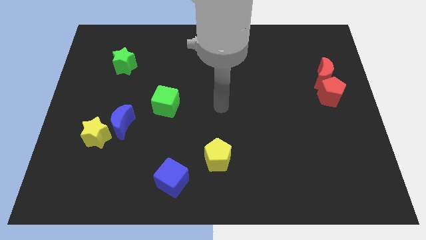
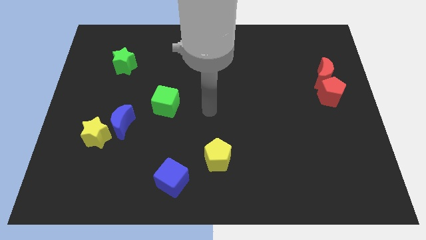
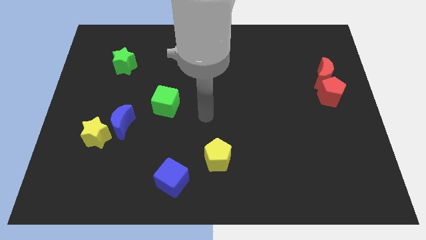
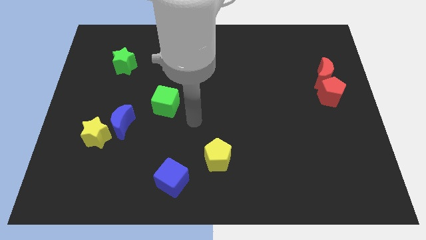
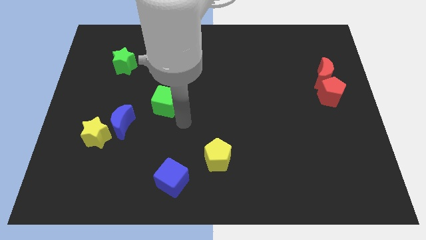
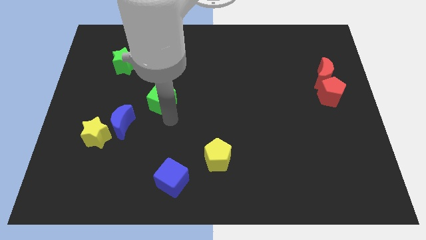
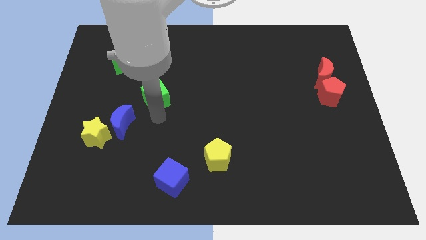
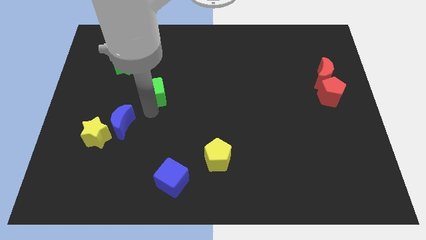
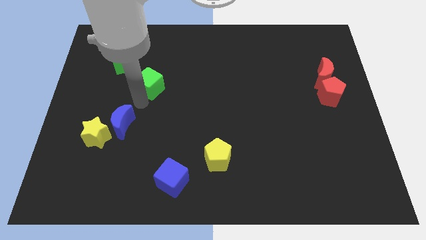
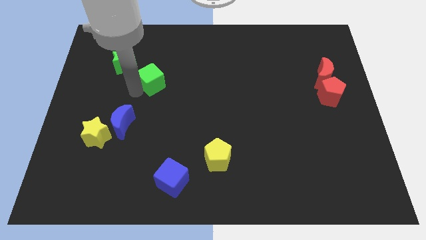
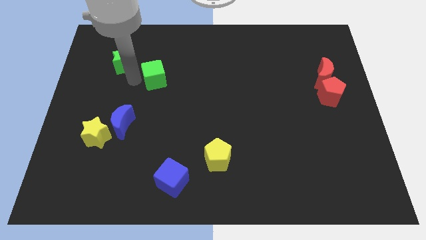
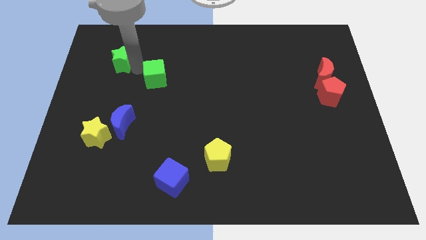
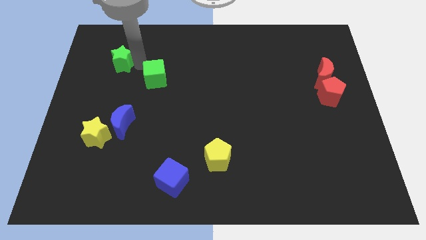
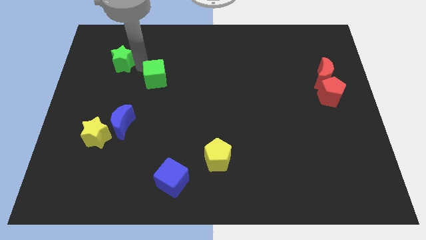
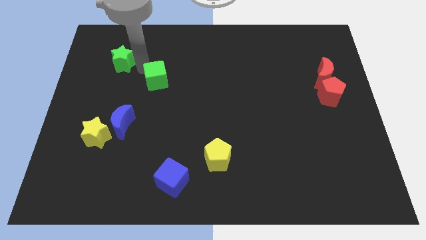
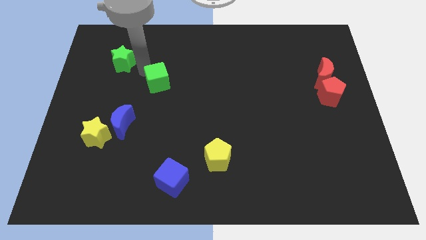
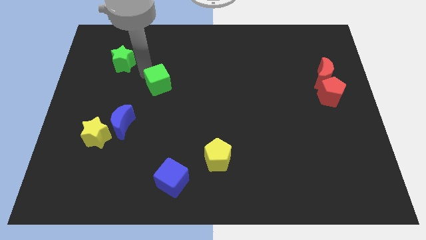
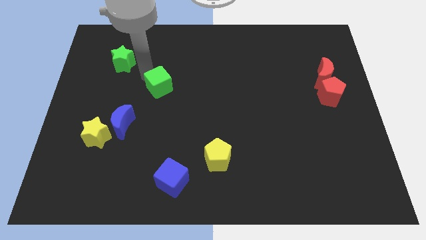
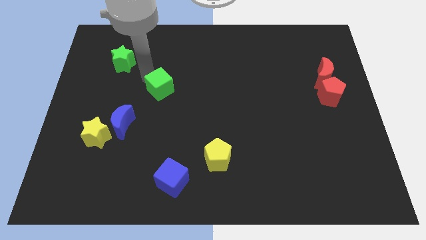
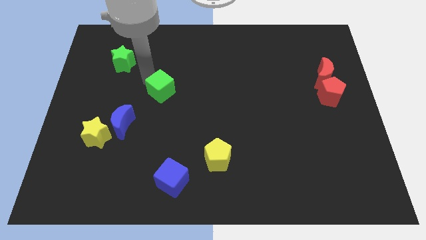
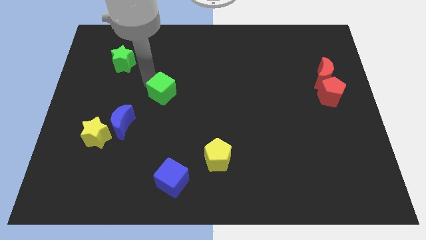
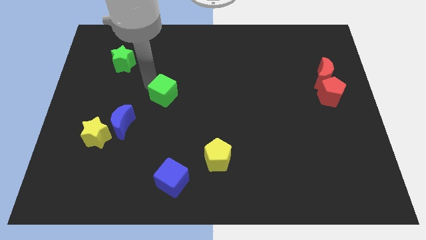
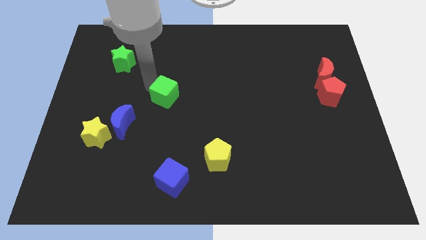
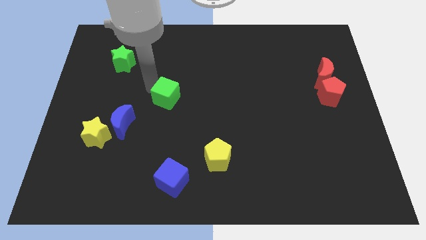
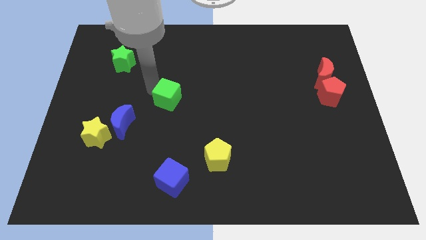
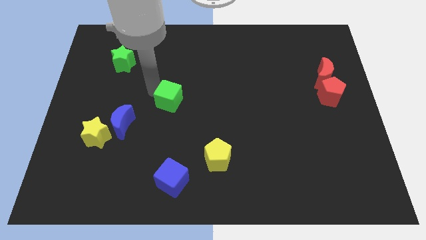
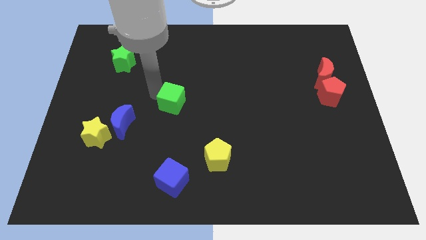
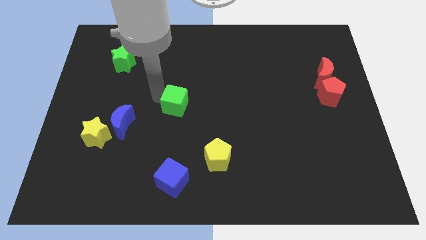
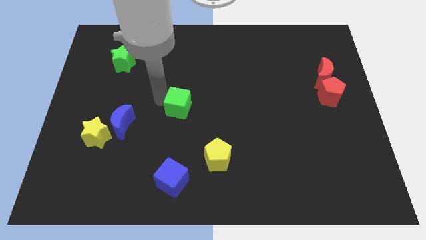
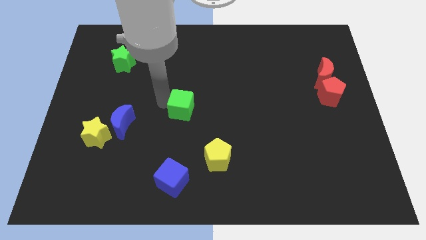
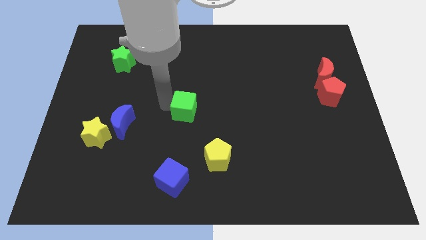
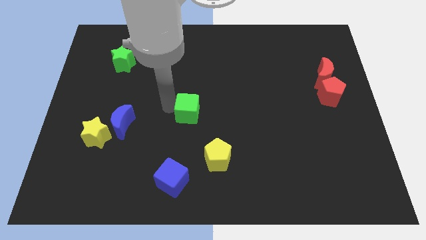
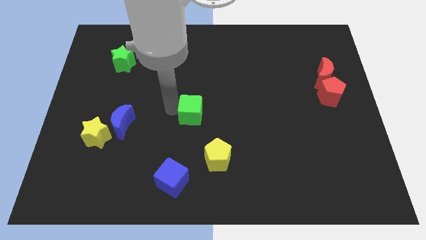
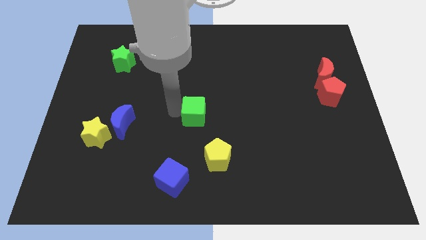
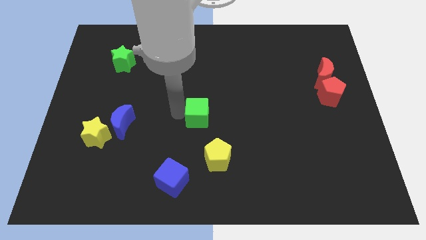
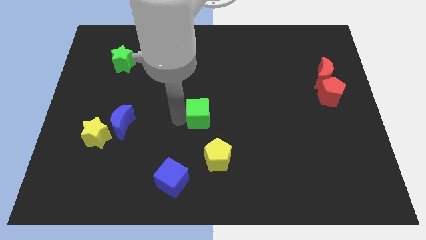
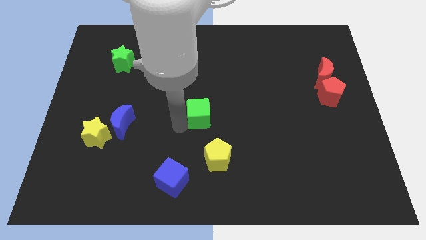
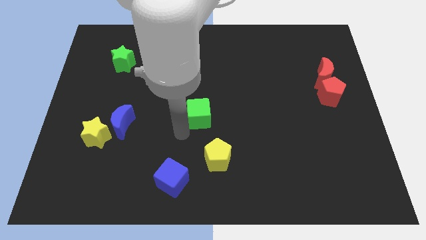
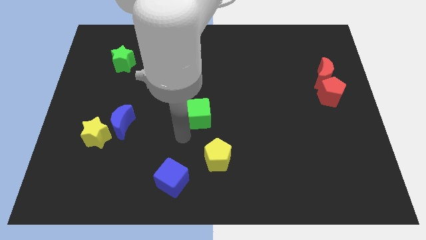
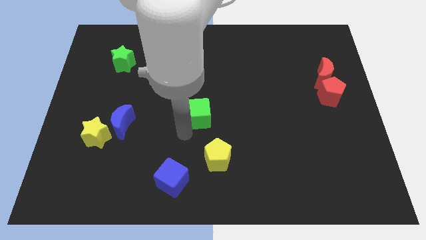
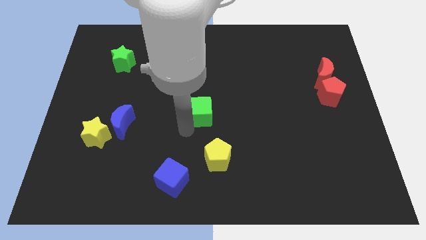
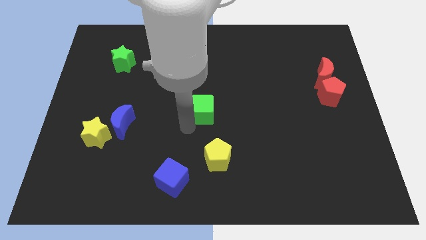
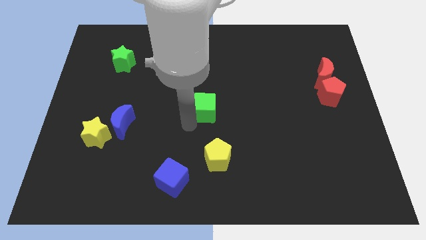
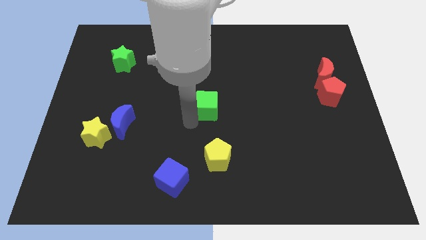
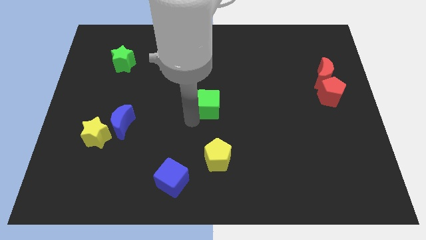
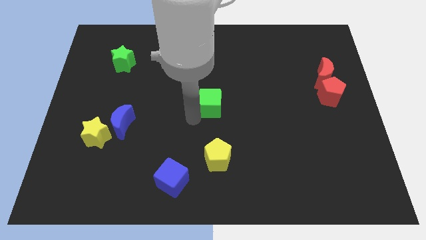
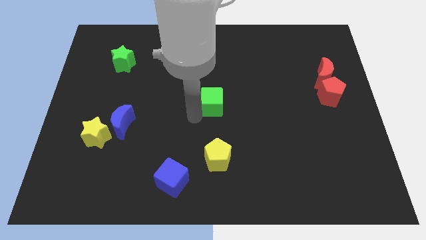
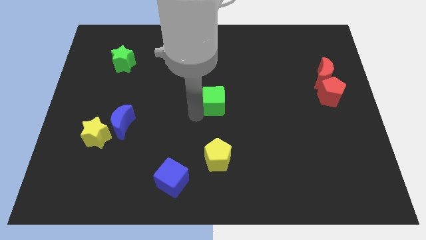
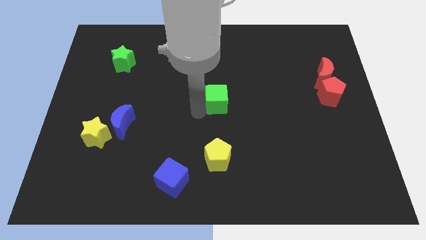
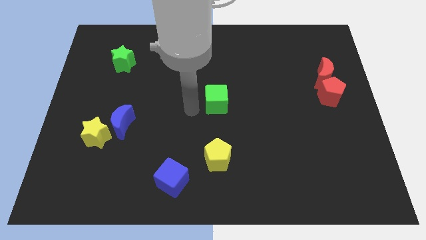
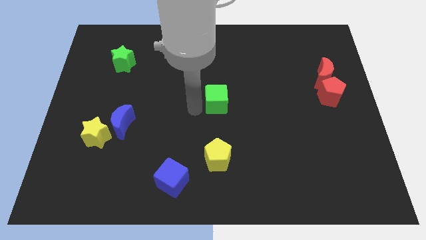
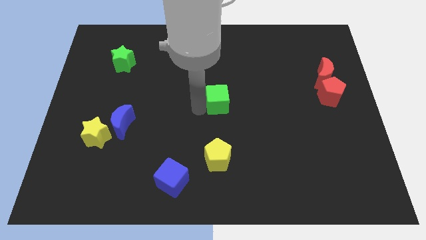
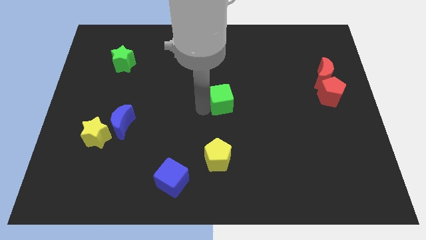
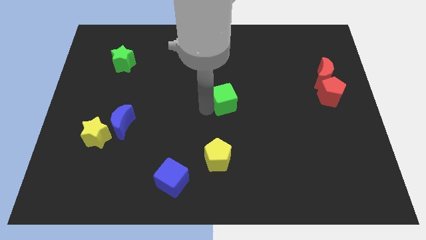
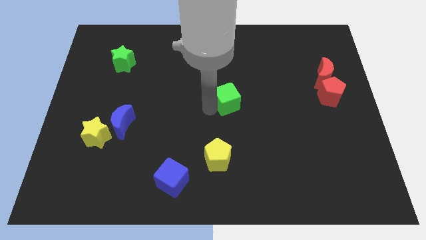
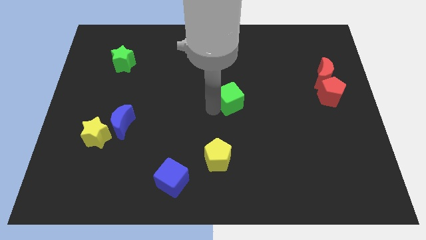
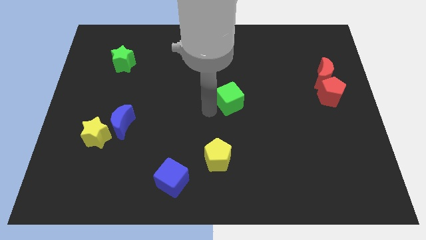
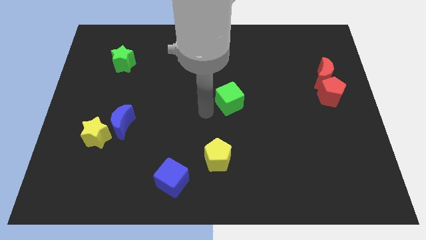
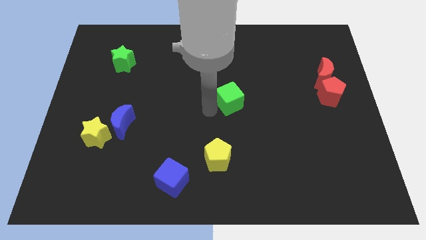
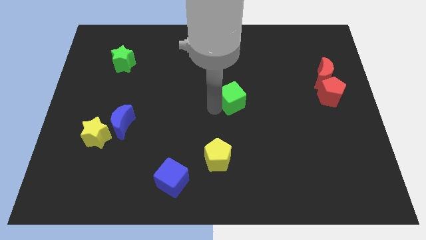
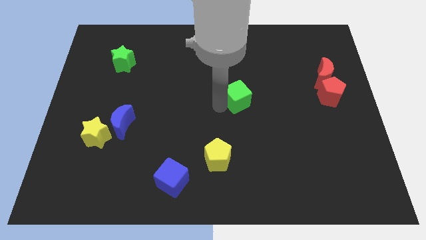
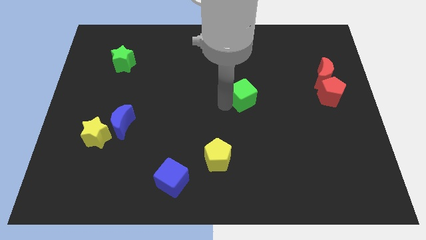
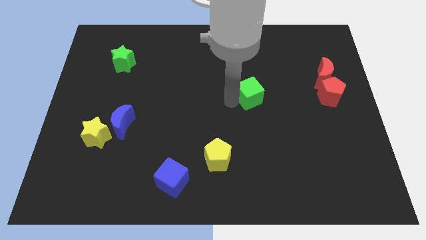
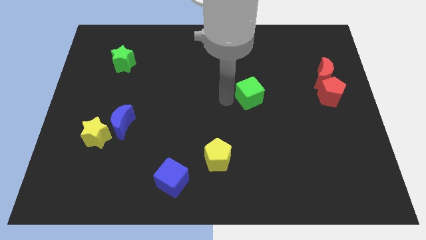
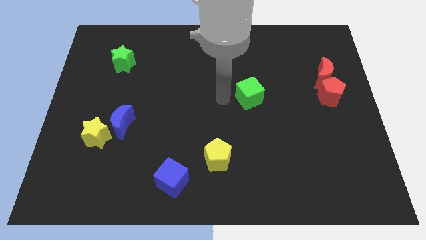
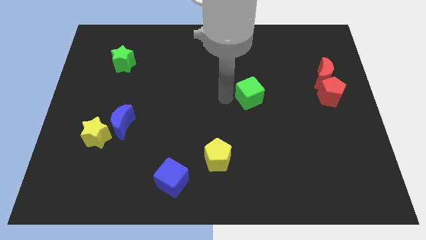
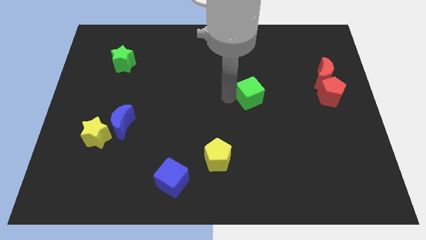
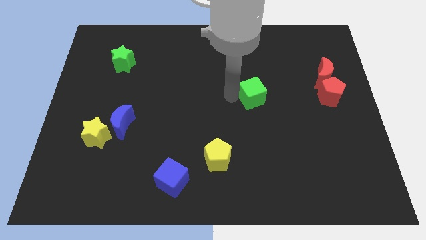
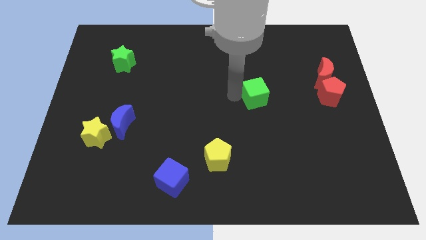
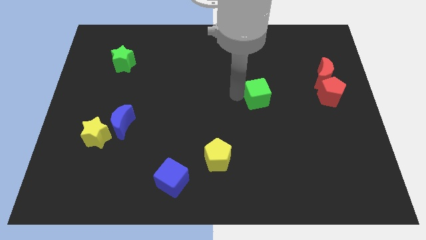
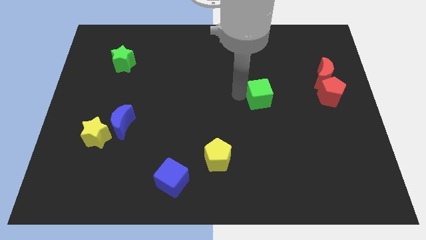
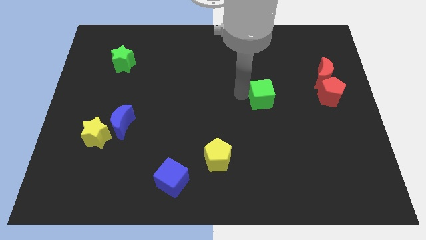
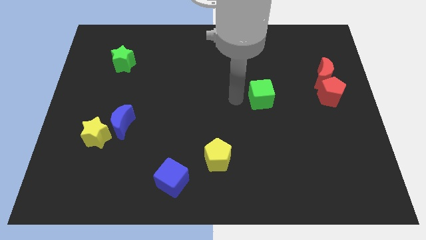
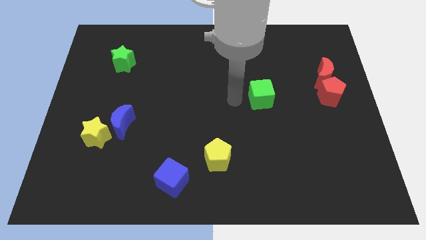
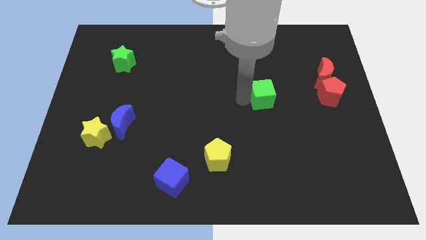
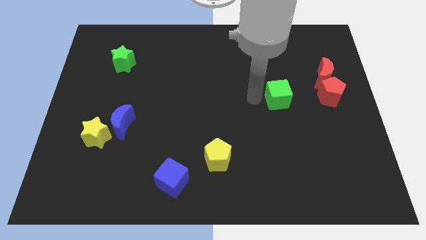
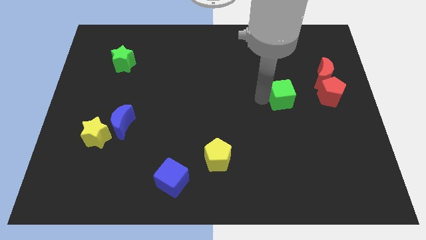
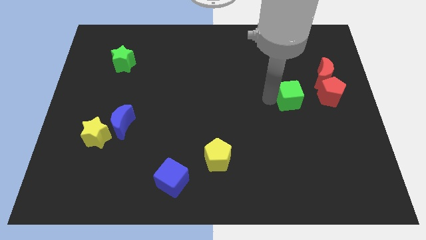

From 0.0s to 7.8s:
slide the green cube diagonally down and to the left of the red moon
